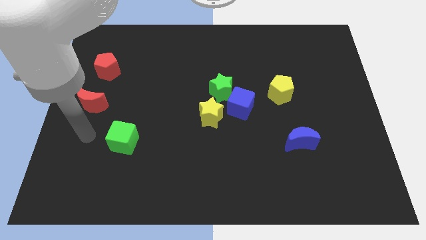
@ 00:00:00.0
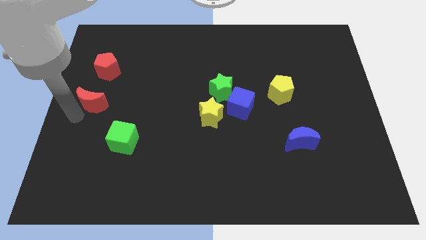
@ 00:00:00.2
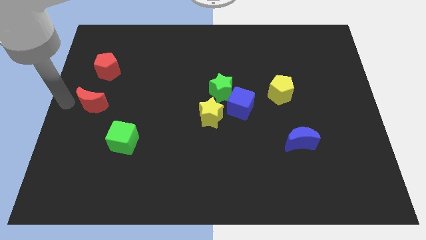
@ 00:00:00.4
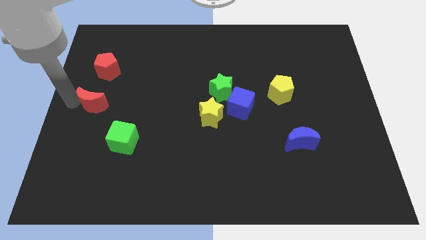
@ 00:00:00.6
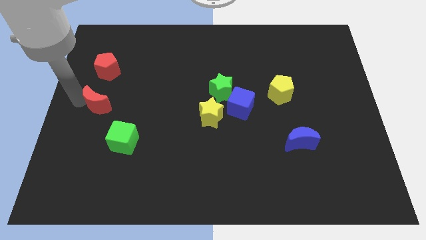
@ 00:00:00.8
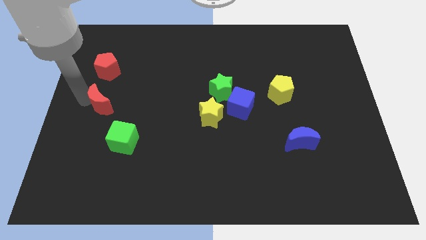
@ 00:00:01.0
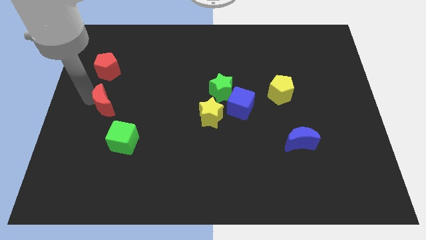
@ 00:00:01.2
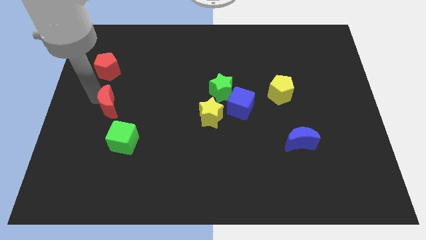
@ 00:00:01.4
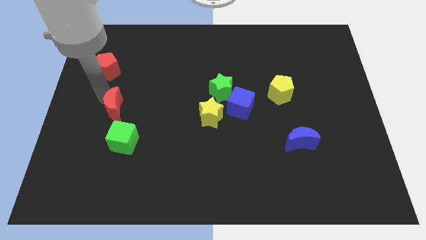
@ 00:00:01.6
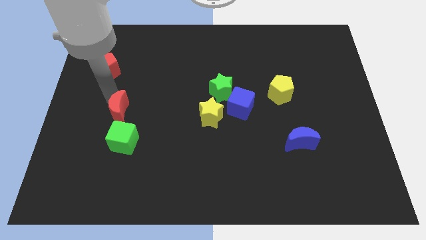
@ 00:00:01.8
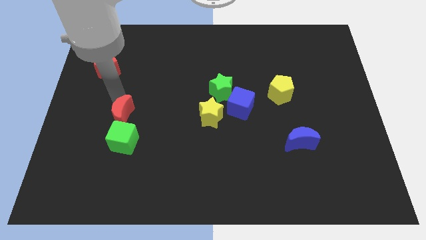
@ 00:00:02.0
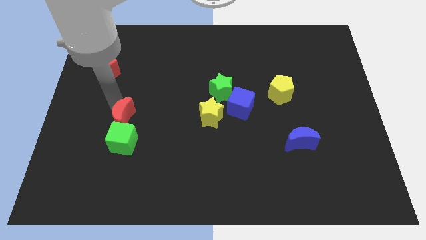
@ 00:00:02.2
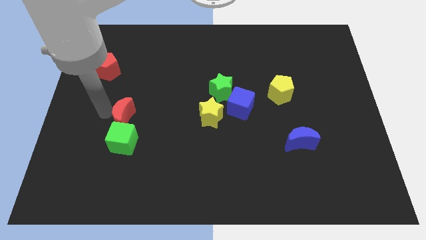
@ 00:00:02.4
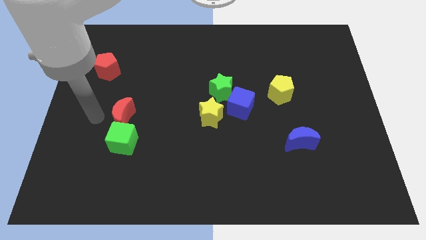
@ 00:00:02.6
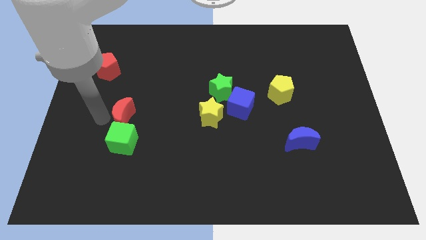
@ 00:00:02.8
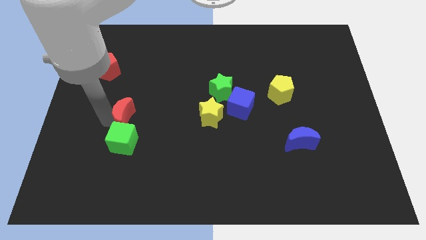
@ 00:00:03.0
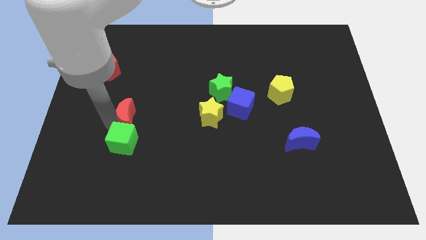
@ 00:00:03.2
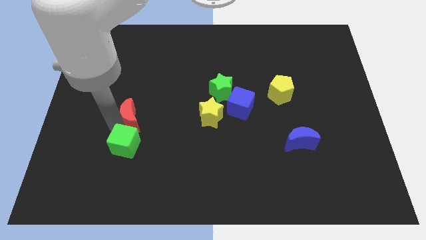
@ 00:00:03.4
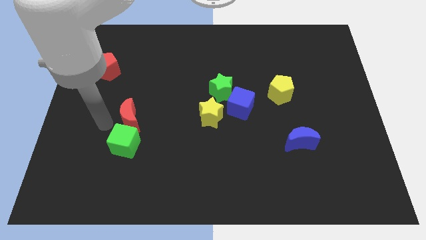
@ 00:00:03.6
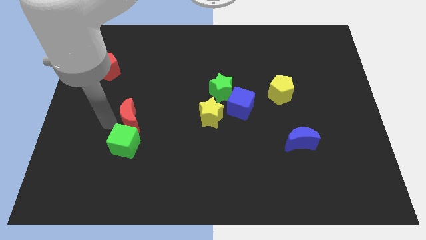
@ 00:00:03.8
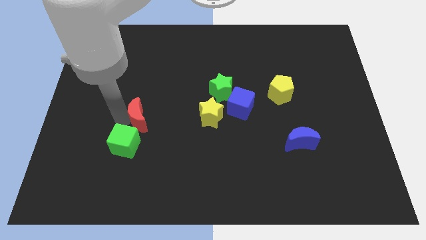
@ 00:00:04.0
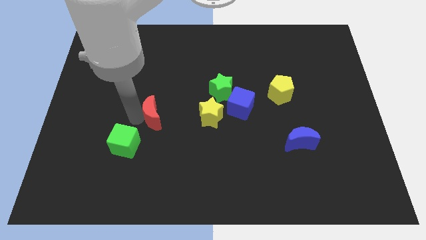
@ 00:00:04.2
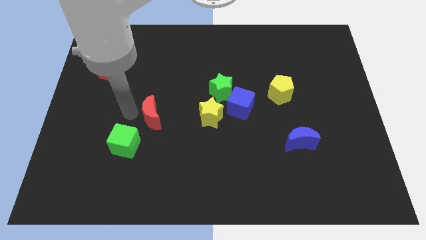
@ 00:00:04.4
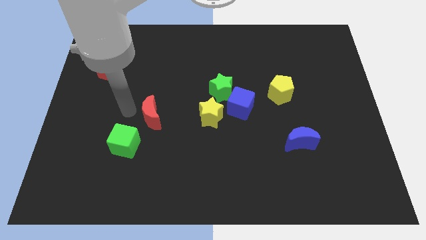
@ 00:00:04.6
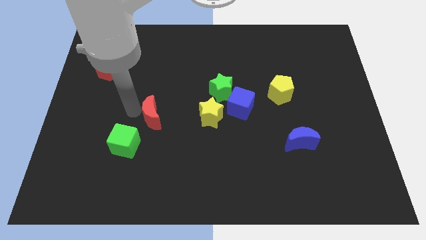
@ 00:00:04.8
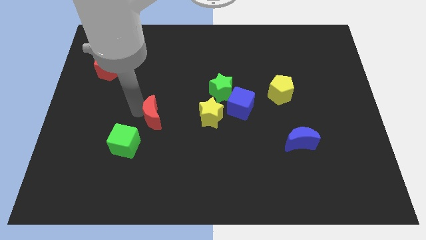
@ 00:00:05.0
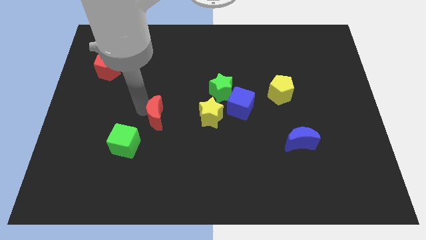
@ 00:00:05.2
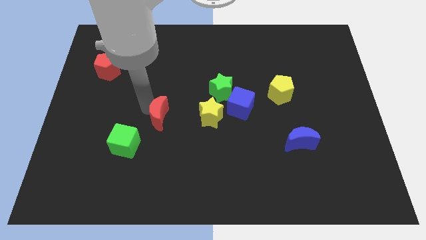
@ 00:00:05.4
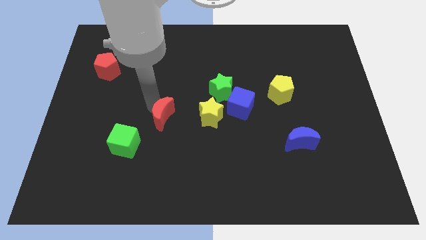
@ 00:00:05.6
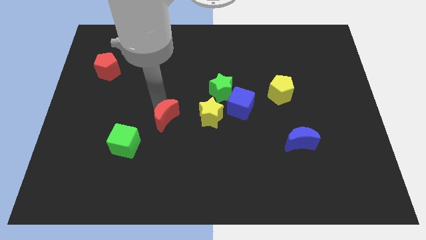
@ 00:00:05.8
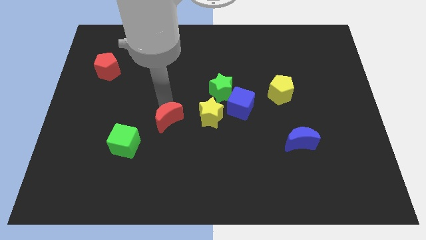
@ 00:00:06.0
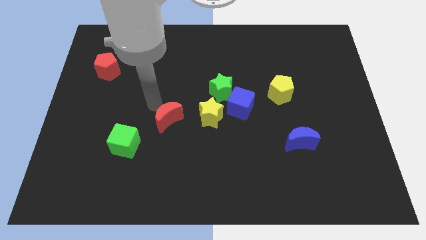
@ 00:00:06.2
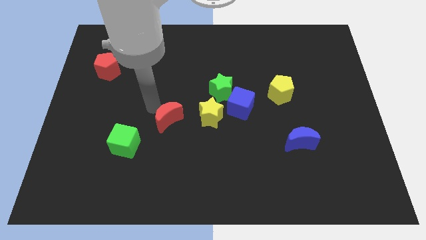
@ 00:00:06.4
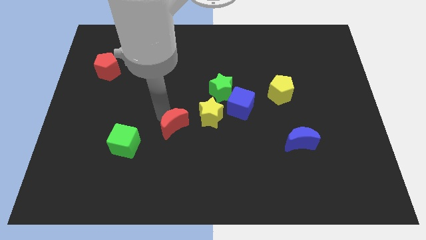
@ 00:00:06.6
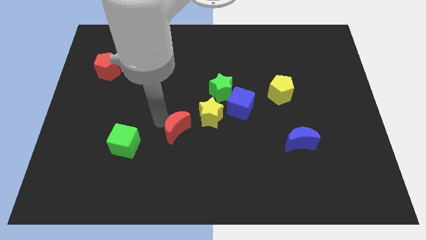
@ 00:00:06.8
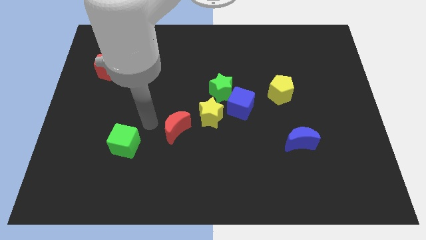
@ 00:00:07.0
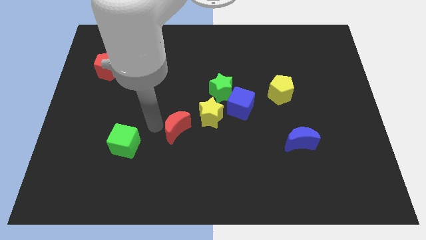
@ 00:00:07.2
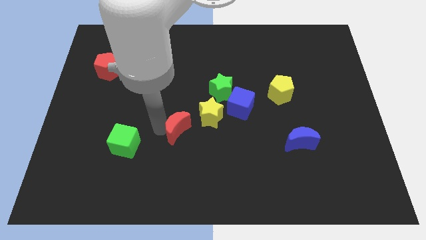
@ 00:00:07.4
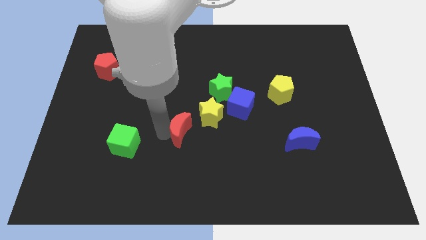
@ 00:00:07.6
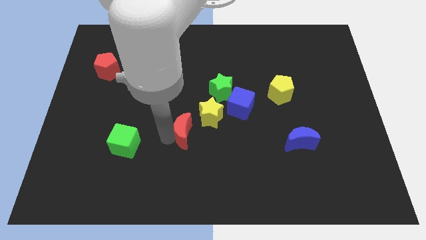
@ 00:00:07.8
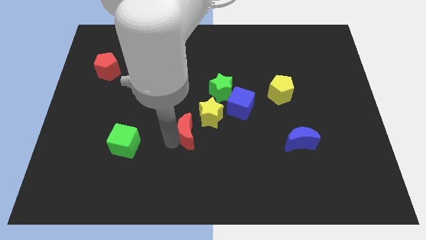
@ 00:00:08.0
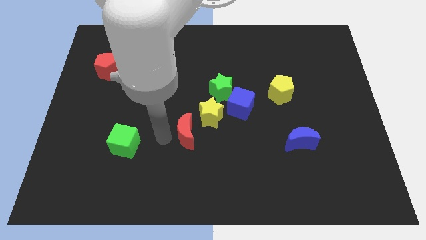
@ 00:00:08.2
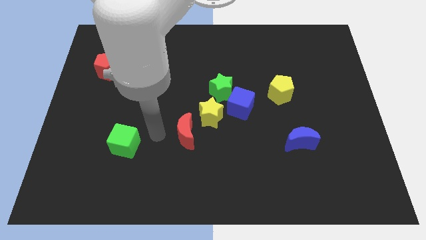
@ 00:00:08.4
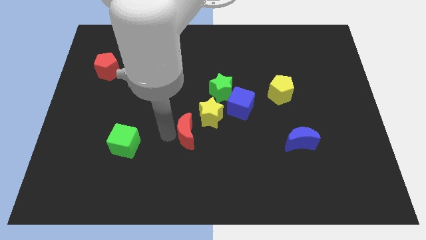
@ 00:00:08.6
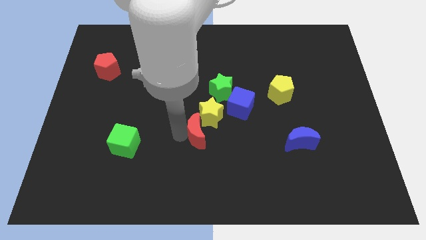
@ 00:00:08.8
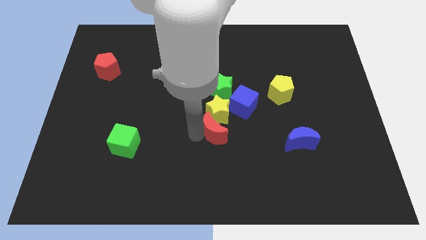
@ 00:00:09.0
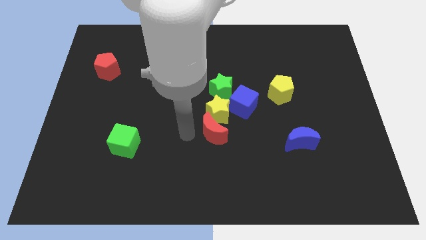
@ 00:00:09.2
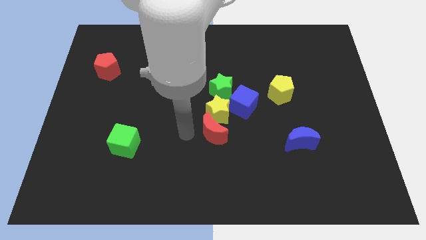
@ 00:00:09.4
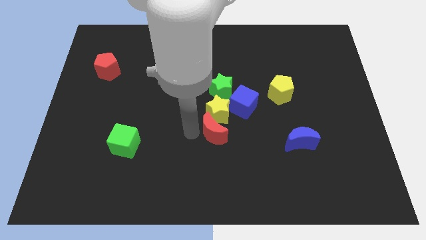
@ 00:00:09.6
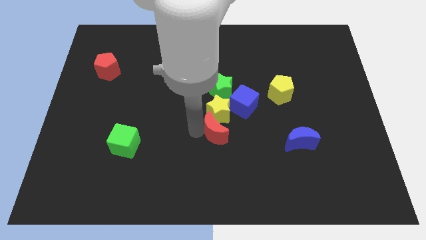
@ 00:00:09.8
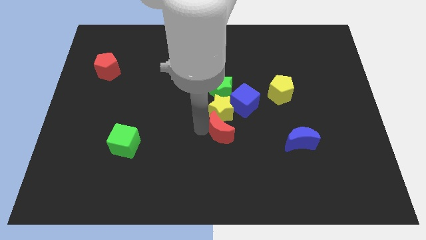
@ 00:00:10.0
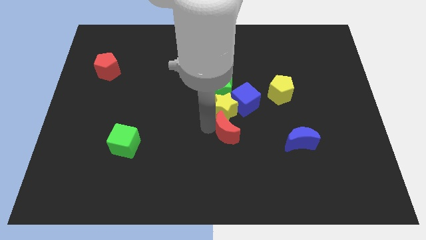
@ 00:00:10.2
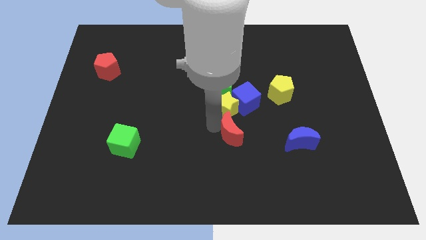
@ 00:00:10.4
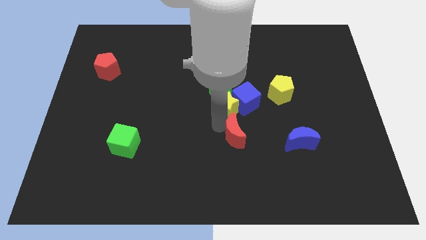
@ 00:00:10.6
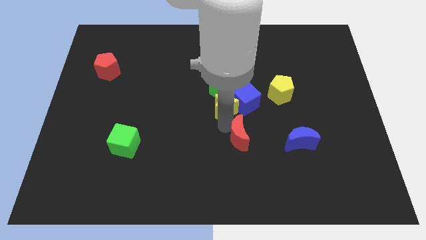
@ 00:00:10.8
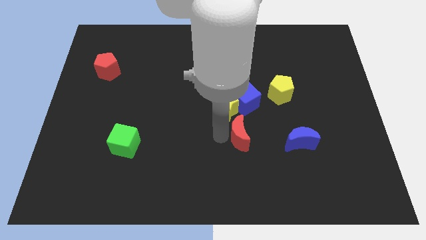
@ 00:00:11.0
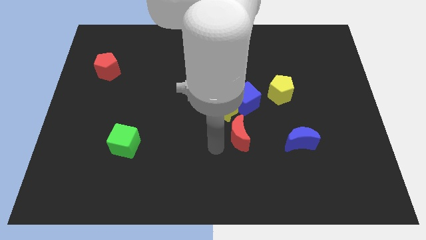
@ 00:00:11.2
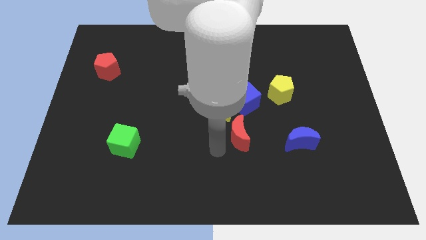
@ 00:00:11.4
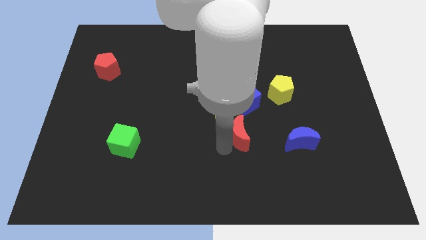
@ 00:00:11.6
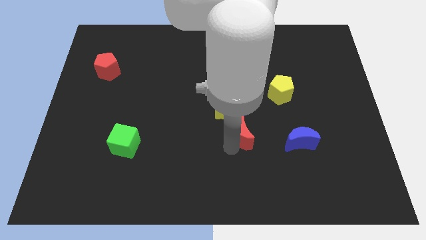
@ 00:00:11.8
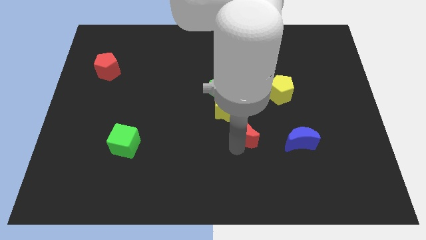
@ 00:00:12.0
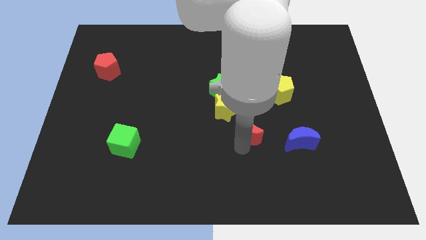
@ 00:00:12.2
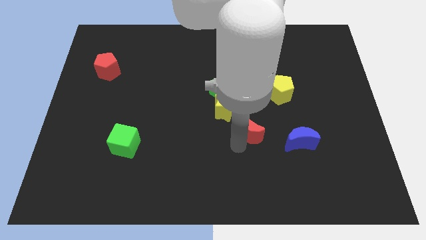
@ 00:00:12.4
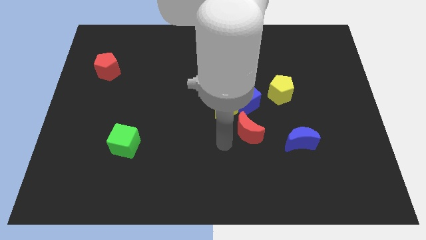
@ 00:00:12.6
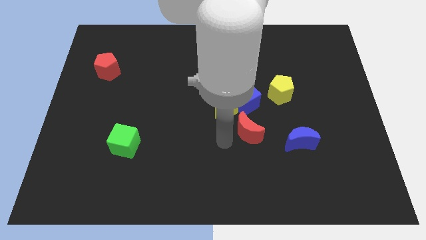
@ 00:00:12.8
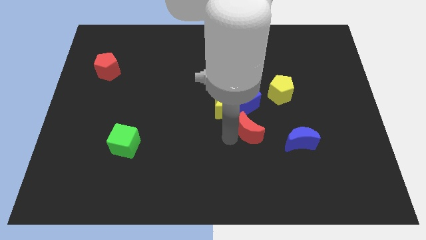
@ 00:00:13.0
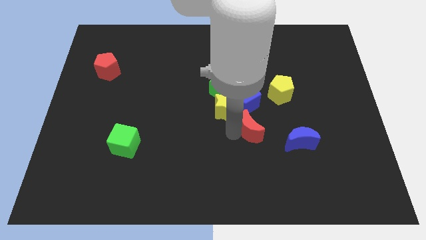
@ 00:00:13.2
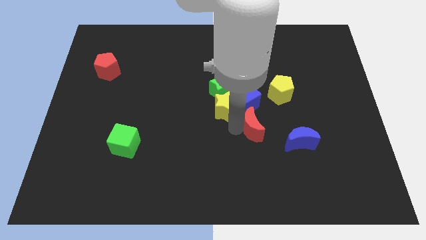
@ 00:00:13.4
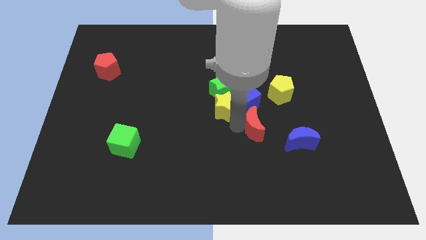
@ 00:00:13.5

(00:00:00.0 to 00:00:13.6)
put the red moon to the top left side of the blue moon
